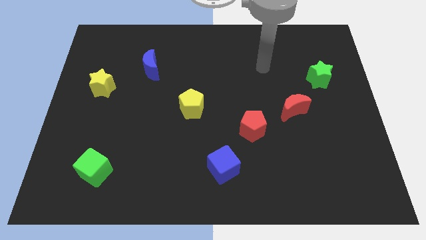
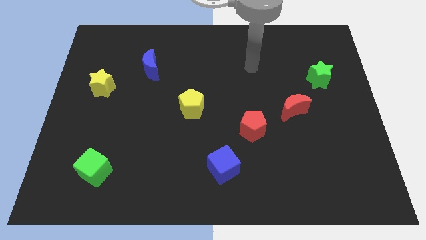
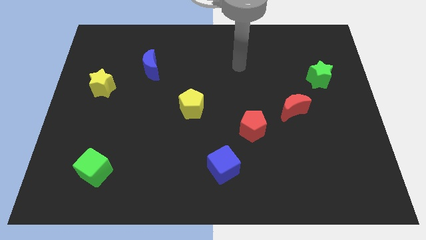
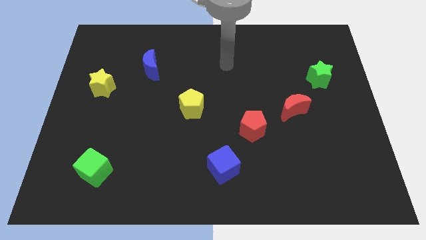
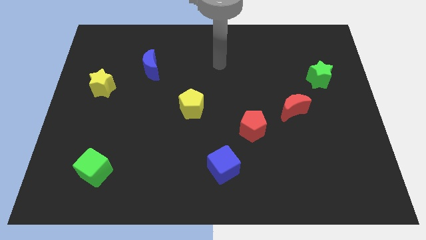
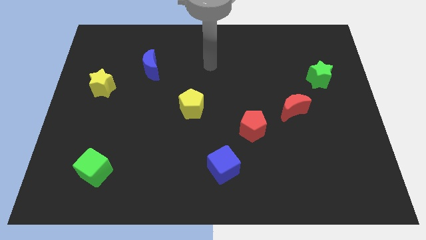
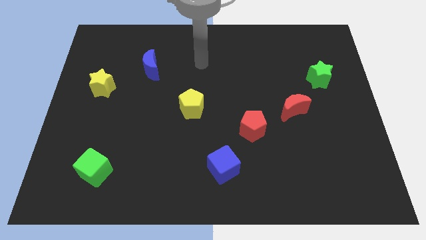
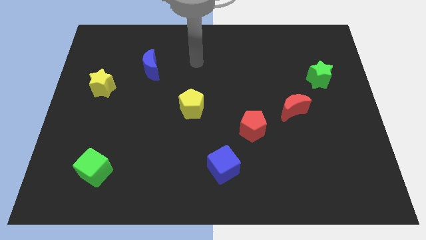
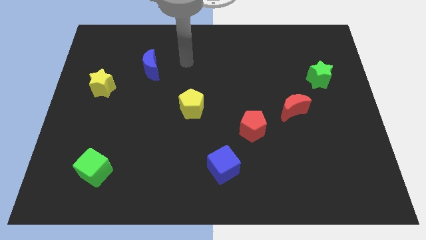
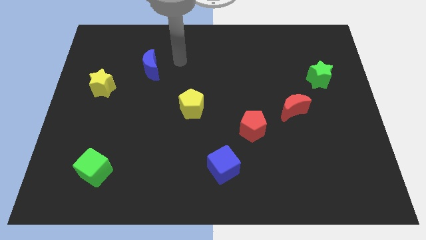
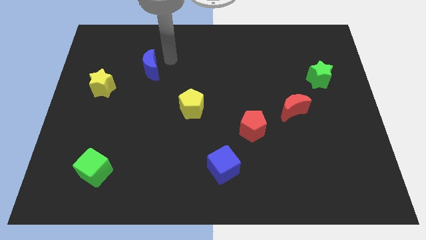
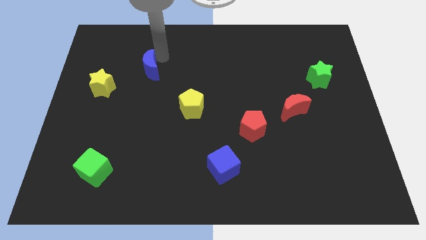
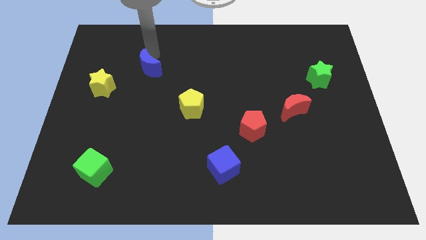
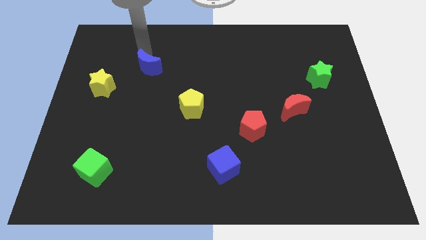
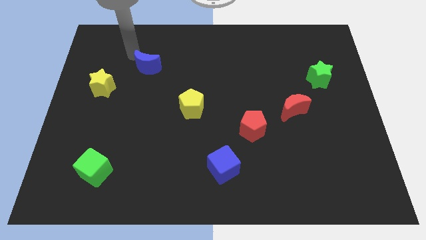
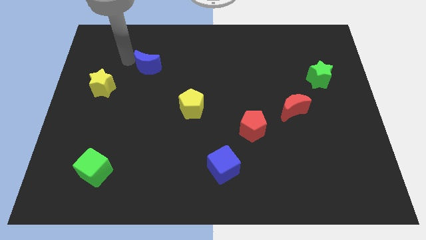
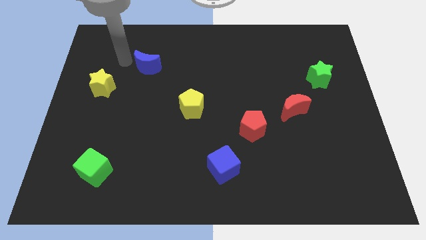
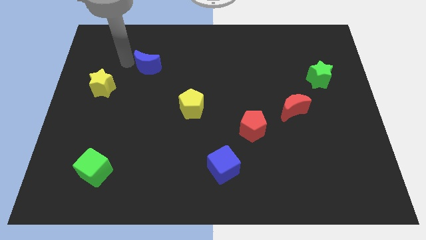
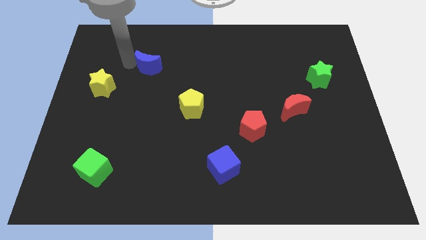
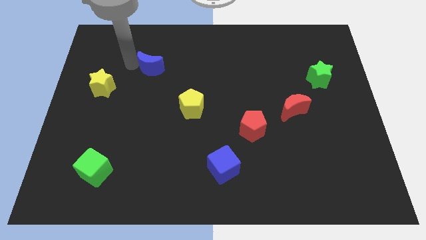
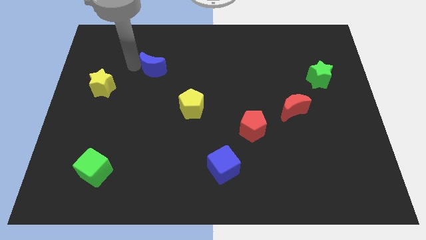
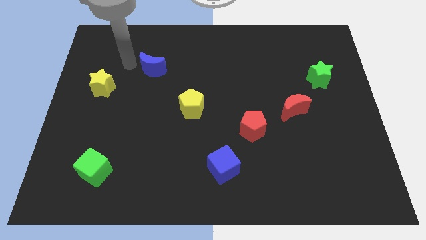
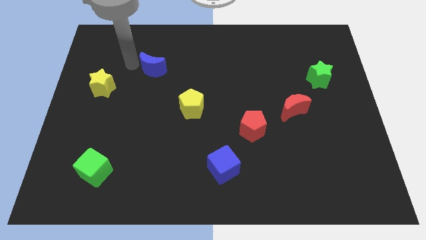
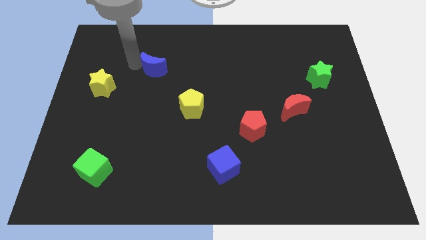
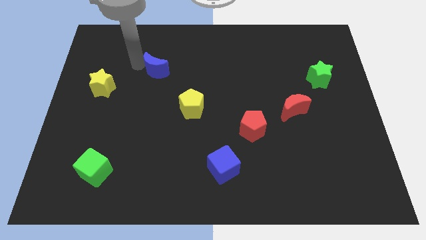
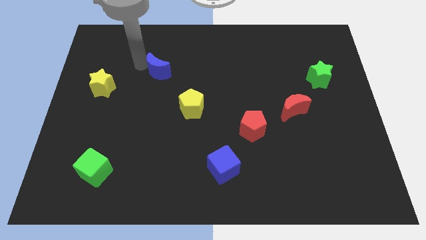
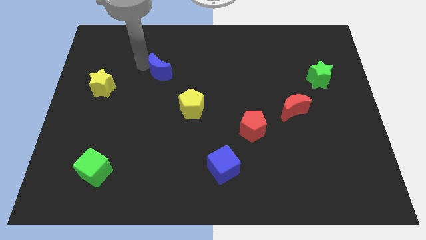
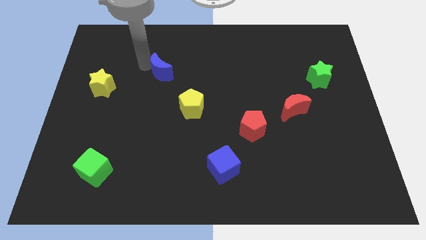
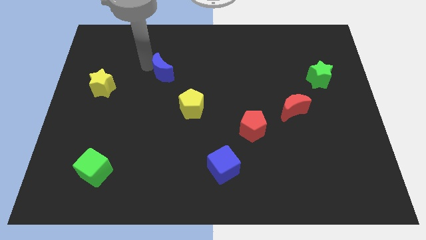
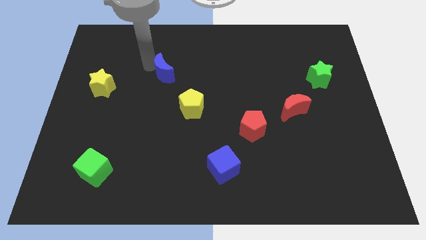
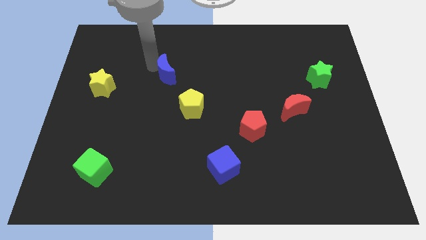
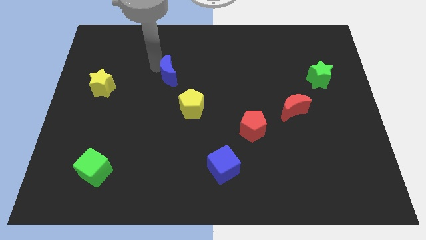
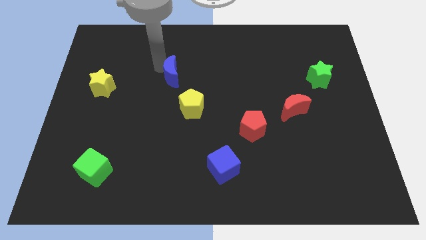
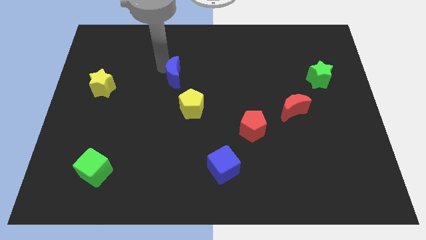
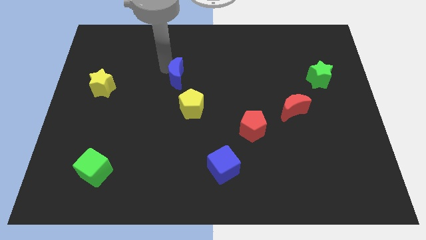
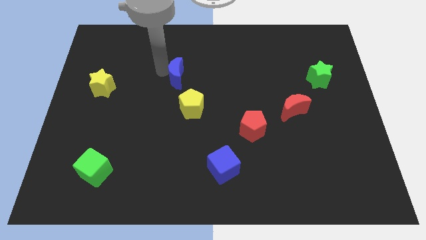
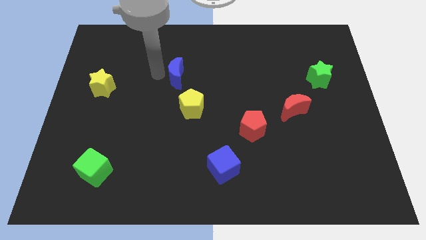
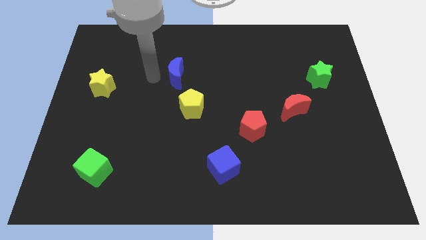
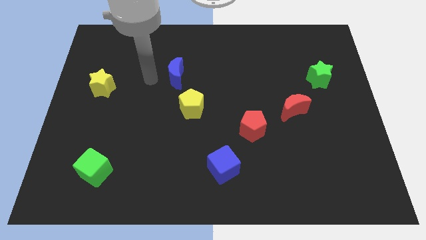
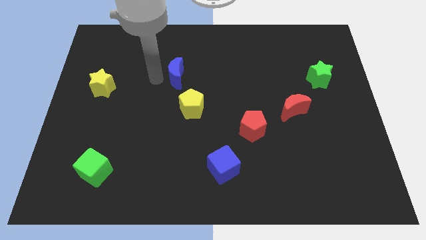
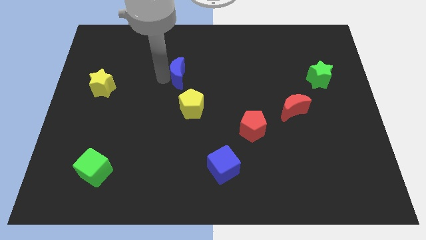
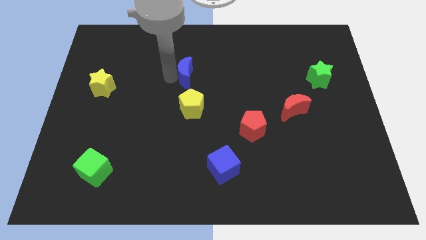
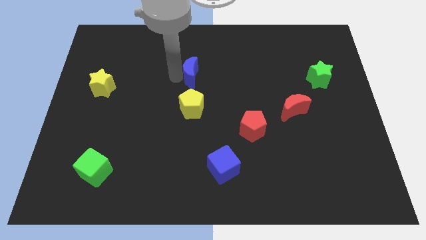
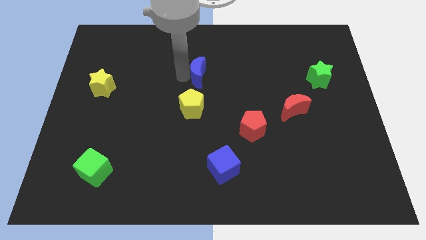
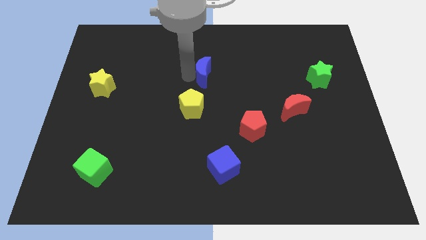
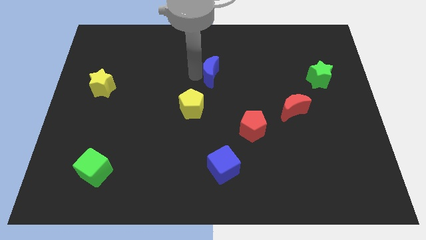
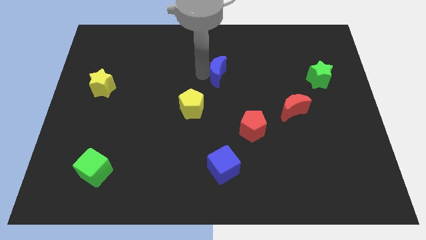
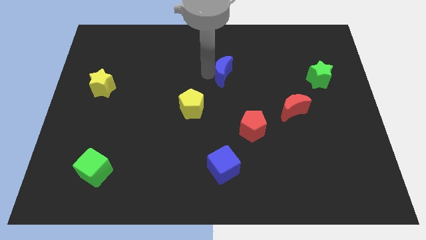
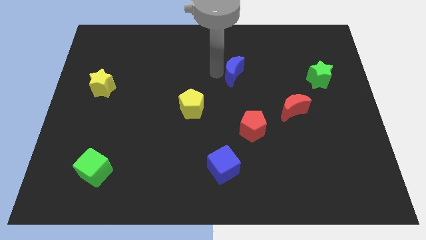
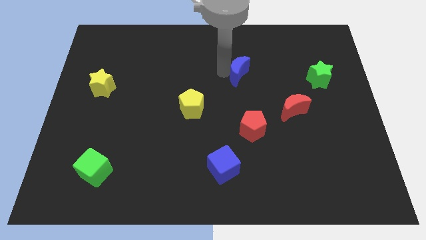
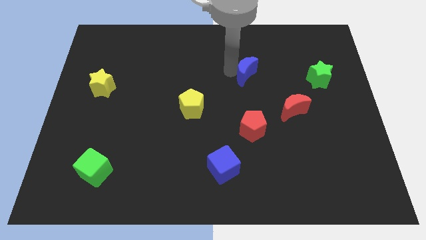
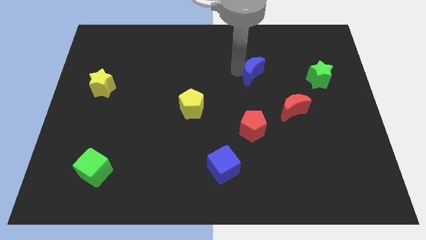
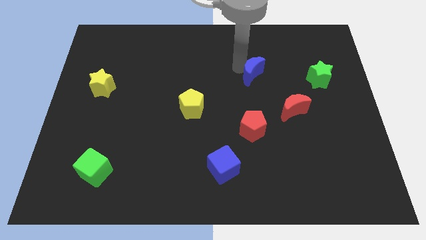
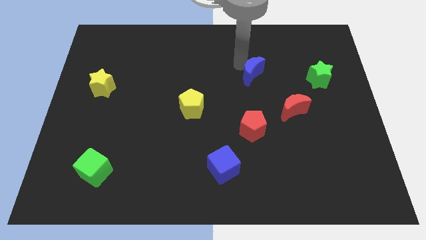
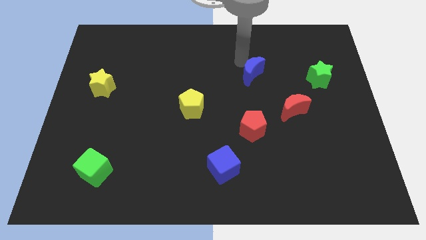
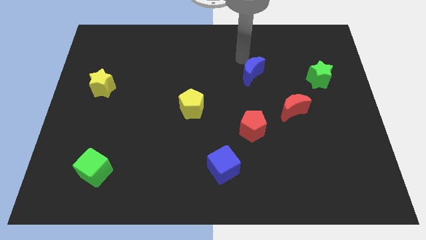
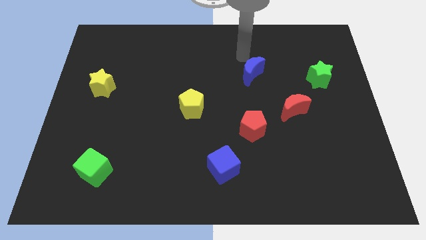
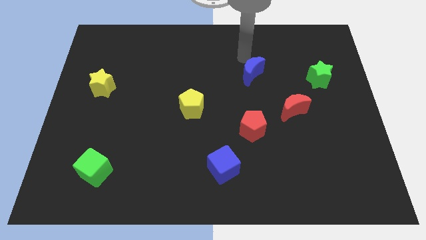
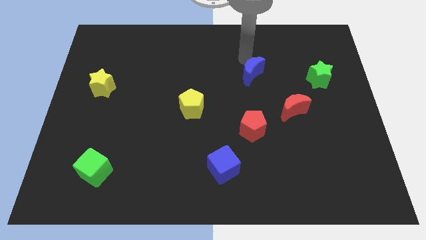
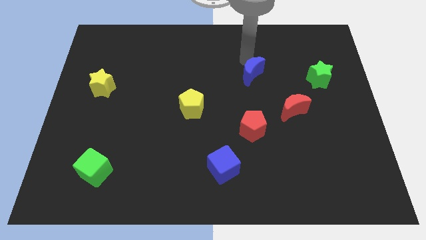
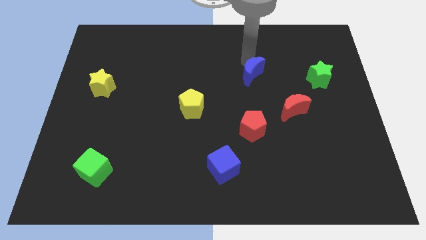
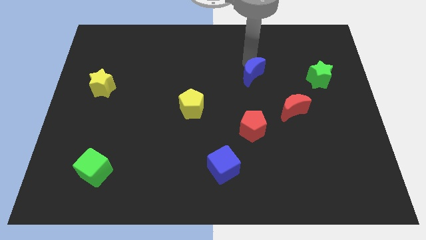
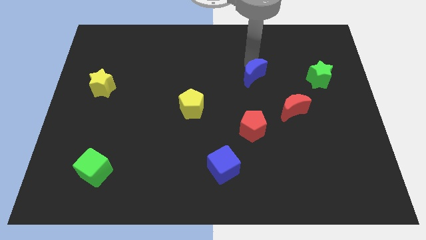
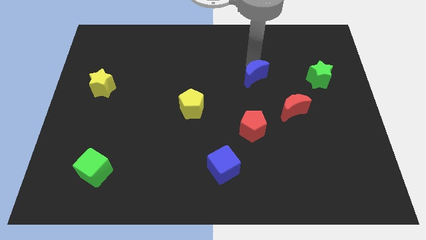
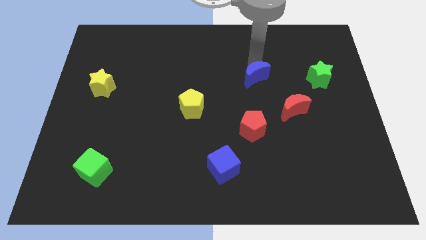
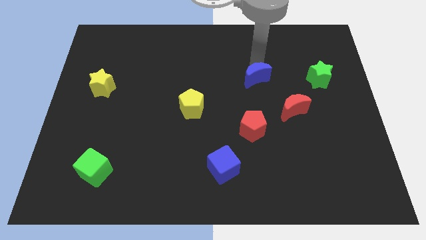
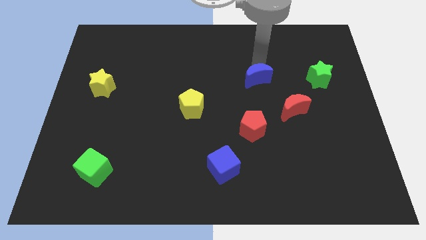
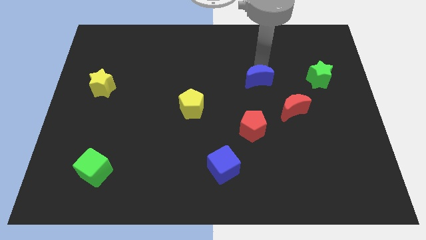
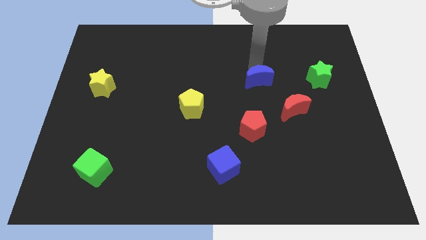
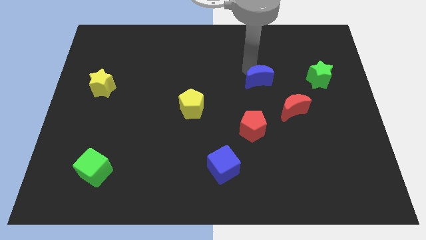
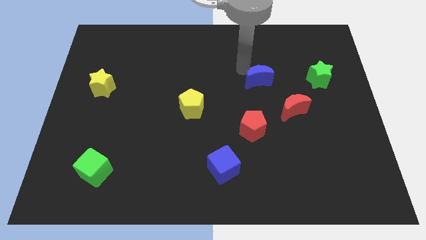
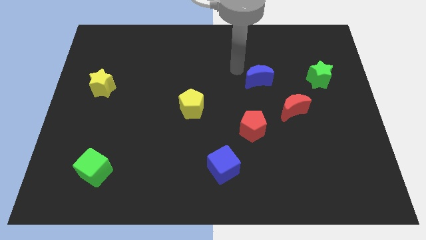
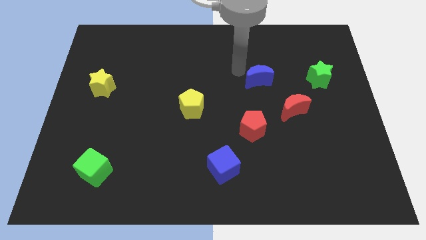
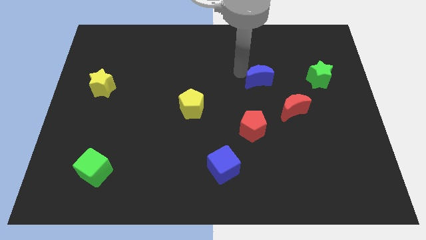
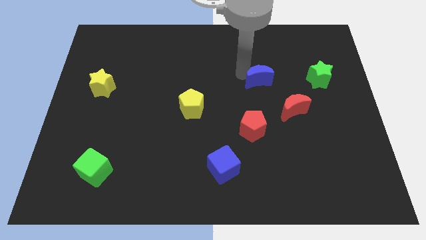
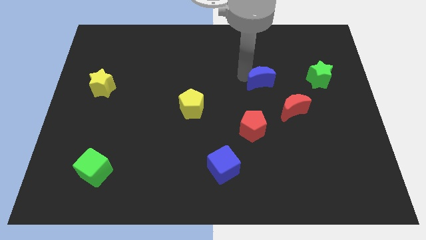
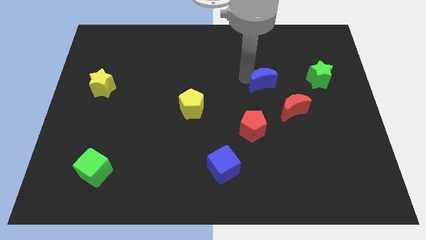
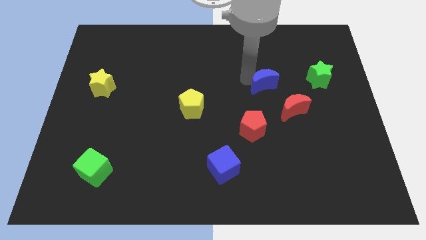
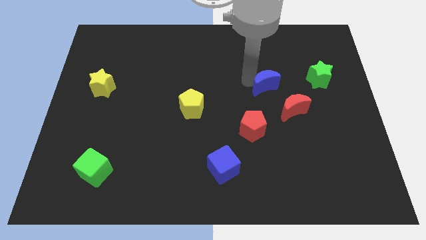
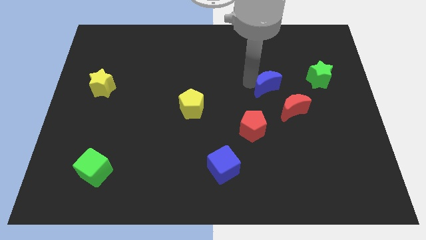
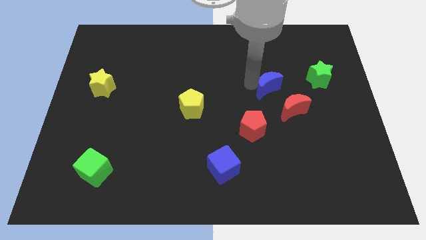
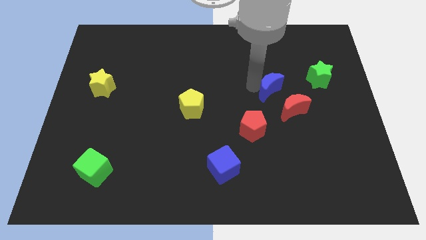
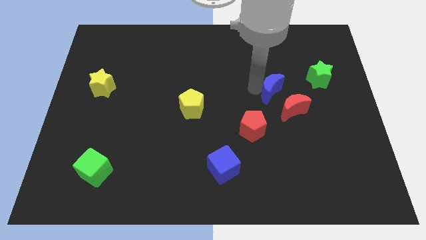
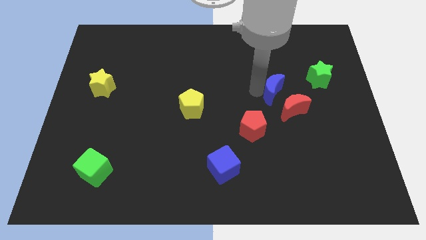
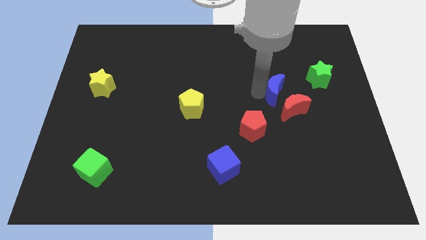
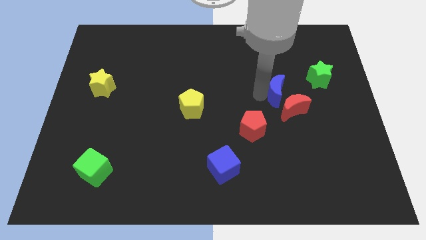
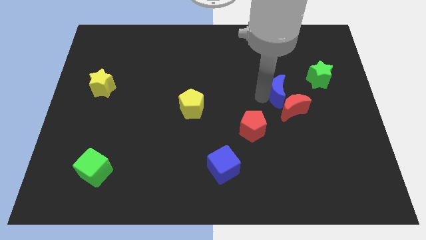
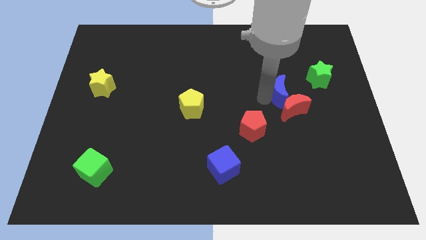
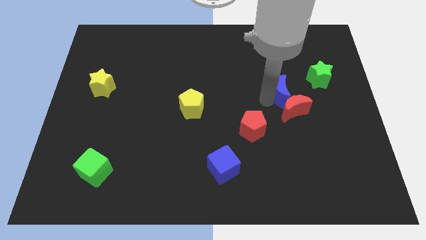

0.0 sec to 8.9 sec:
move the blue moon diagonally down and to the left of the green star
